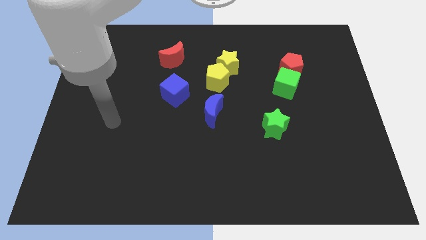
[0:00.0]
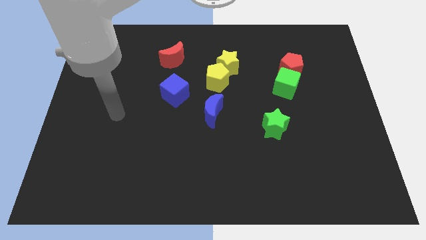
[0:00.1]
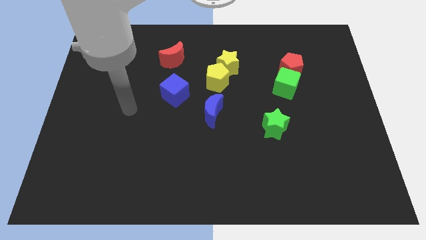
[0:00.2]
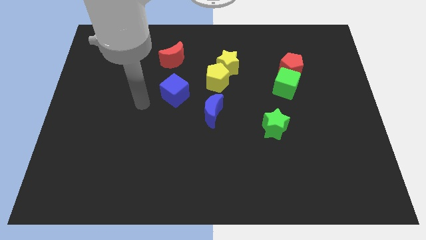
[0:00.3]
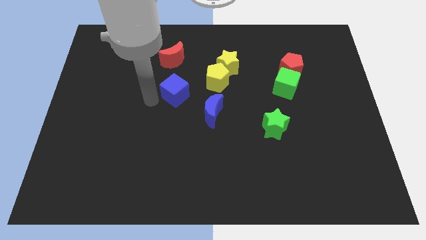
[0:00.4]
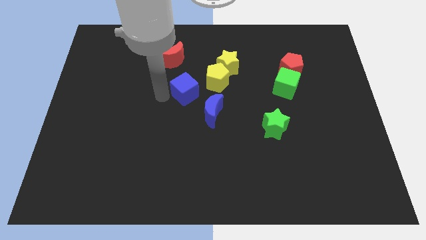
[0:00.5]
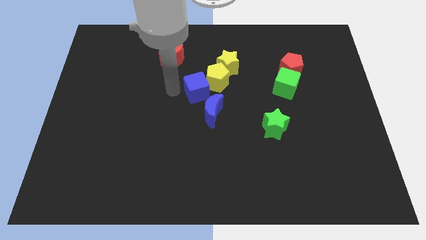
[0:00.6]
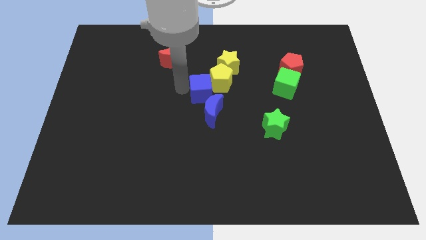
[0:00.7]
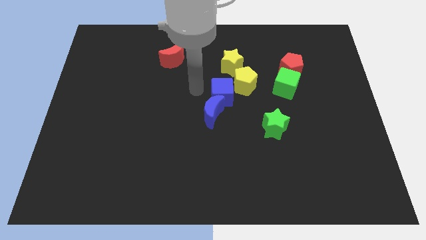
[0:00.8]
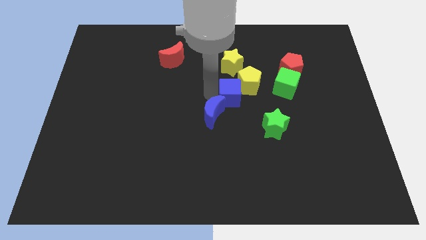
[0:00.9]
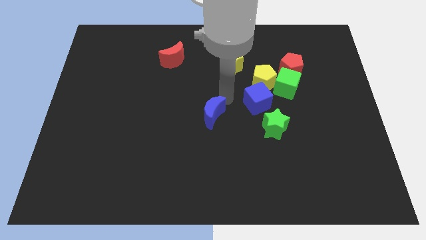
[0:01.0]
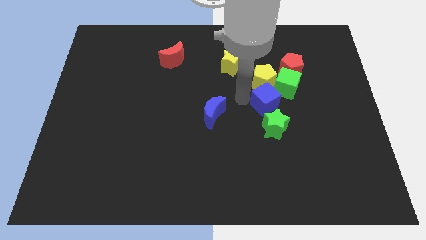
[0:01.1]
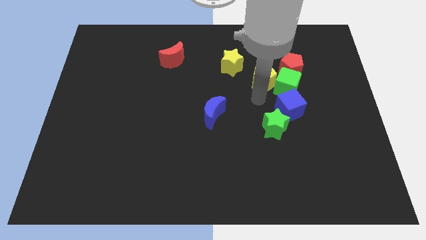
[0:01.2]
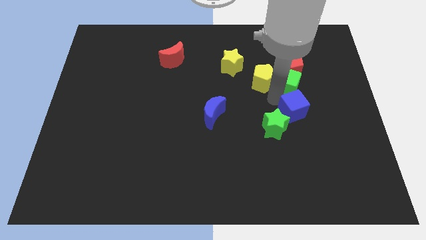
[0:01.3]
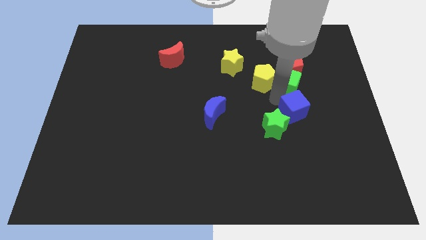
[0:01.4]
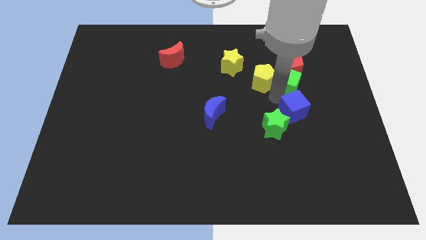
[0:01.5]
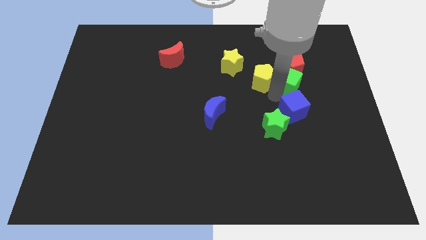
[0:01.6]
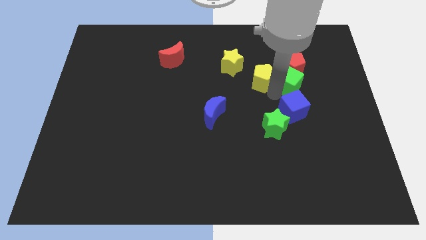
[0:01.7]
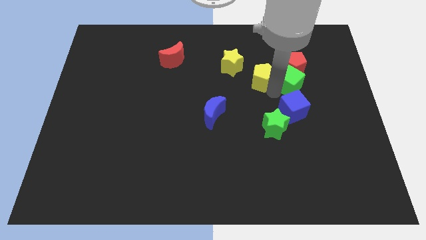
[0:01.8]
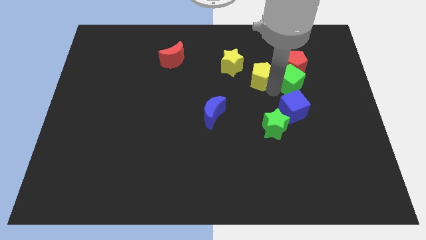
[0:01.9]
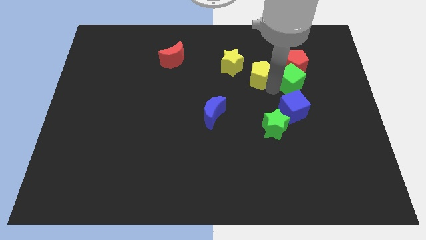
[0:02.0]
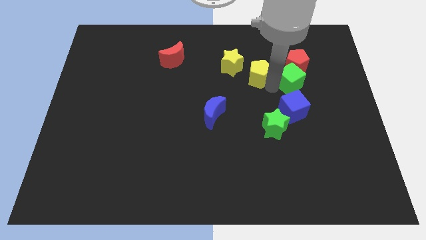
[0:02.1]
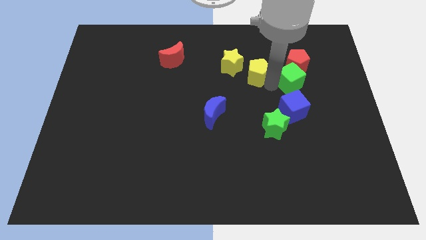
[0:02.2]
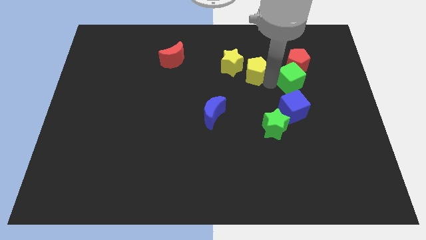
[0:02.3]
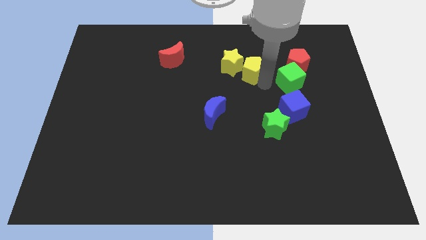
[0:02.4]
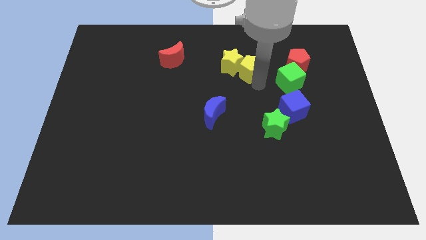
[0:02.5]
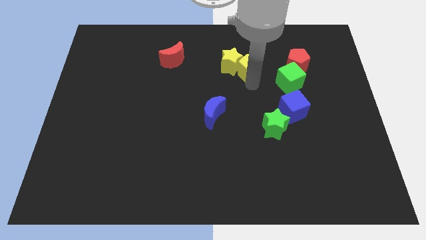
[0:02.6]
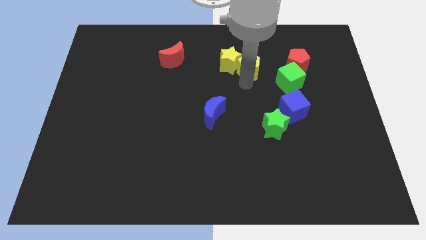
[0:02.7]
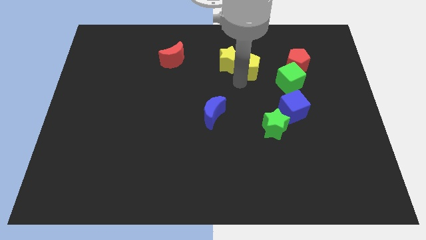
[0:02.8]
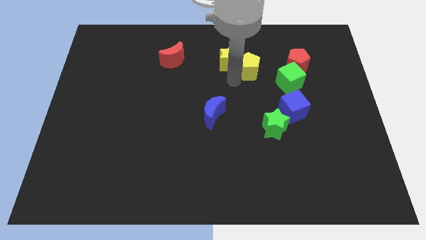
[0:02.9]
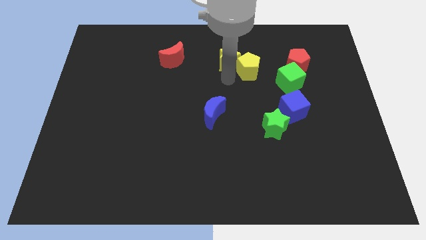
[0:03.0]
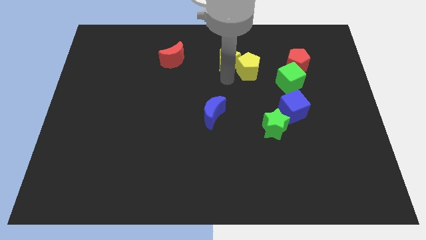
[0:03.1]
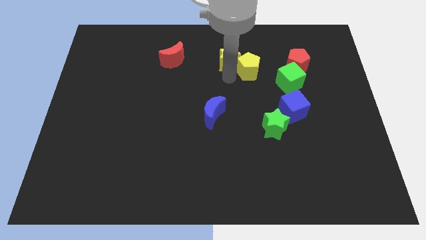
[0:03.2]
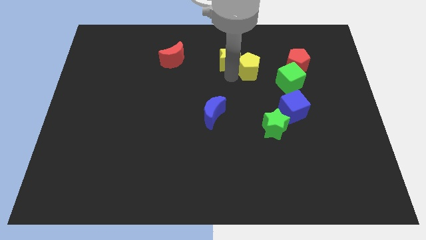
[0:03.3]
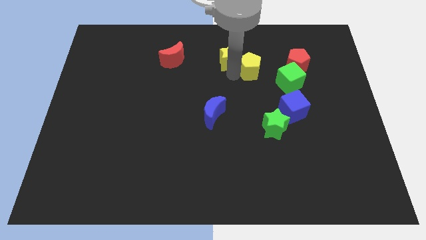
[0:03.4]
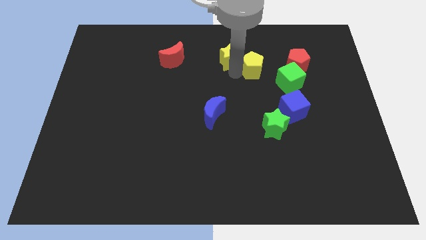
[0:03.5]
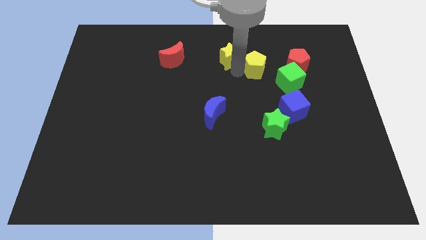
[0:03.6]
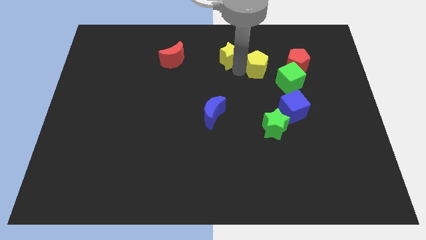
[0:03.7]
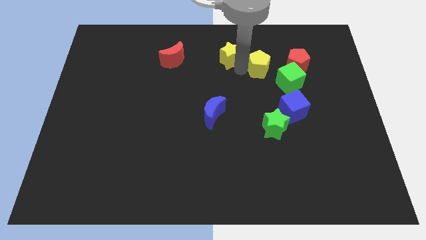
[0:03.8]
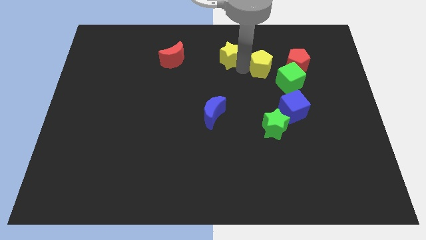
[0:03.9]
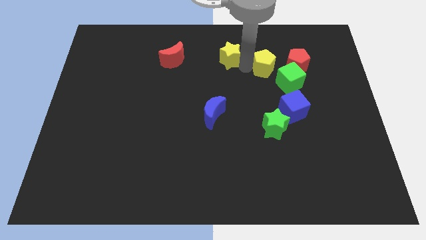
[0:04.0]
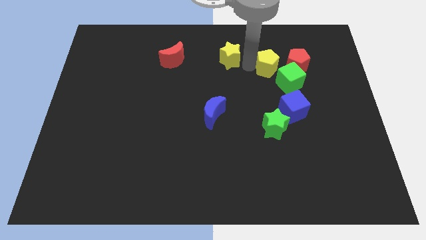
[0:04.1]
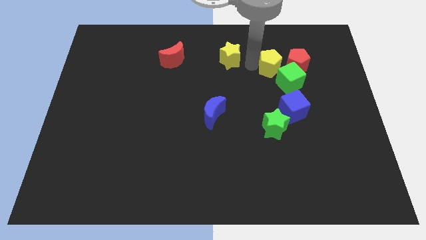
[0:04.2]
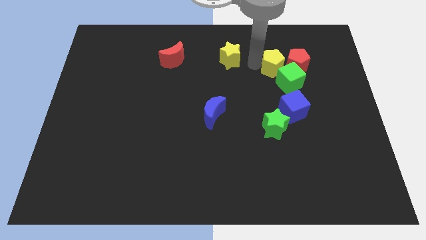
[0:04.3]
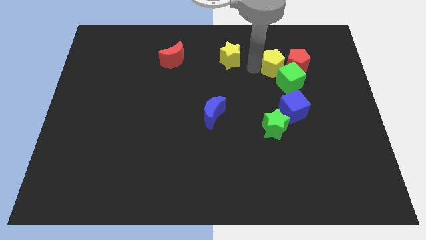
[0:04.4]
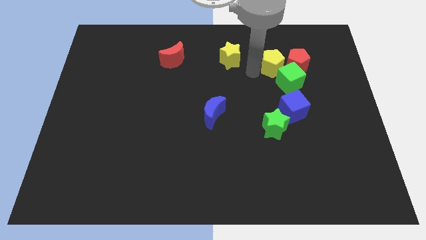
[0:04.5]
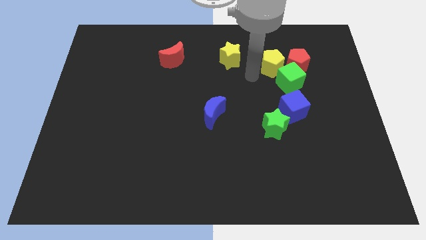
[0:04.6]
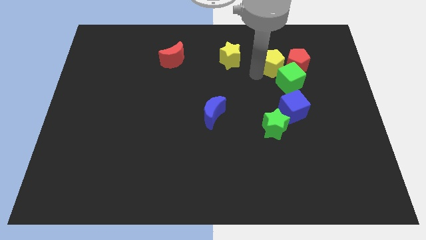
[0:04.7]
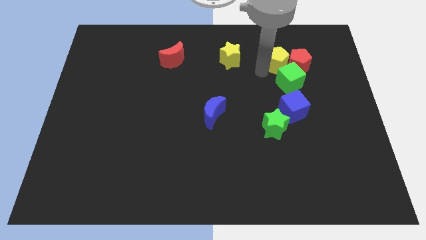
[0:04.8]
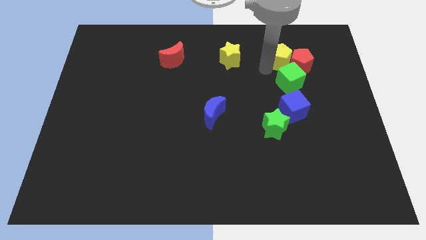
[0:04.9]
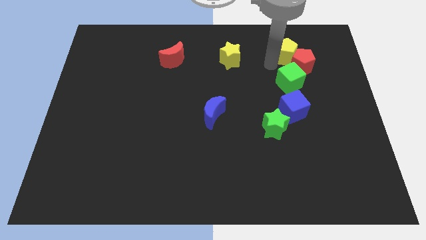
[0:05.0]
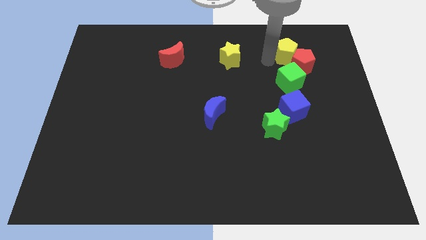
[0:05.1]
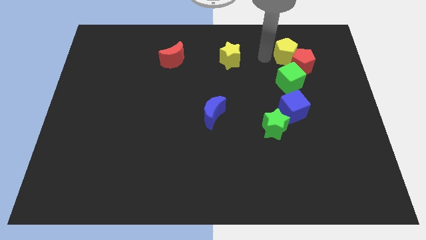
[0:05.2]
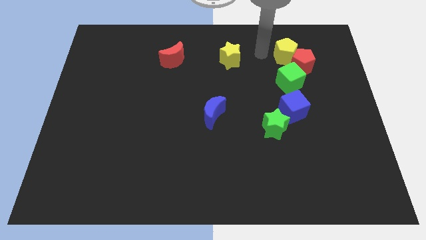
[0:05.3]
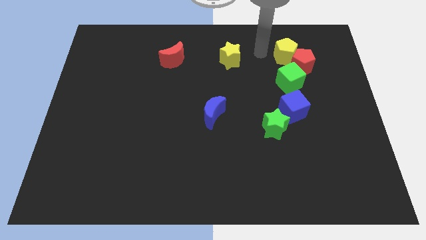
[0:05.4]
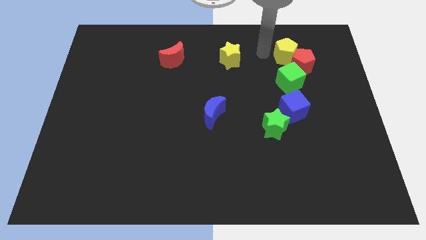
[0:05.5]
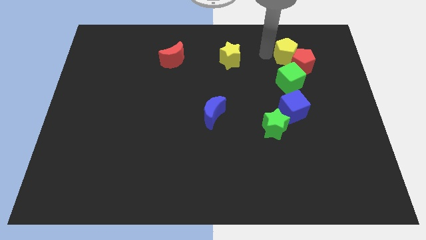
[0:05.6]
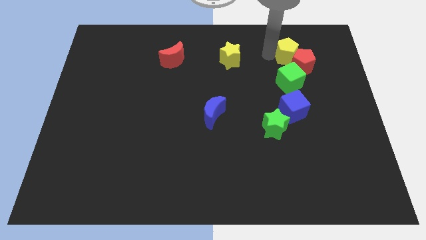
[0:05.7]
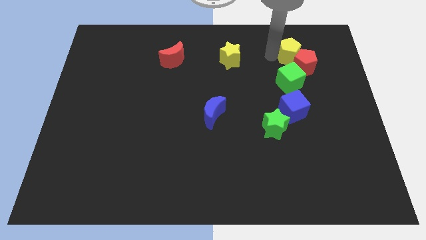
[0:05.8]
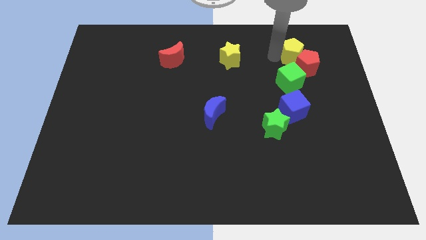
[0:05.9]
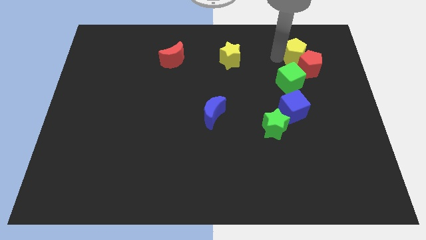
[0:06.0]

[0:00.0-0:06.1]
push the yellow pentagon to the top right of the green cube

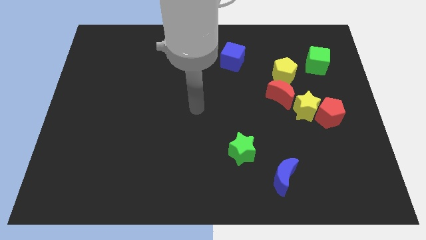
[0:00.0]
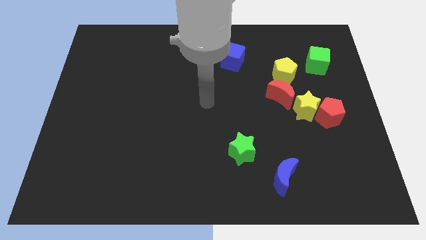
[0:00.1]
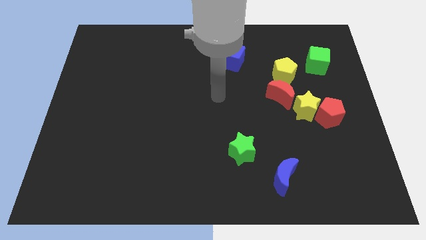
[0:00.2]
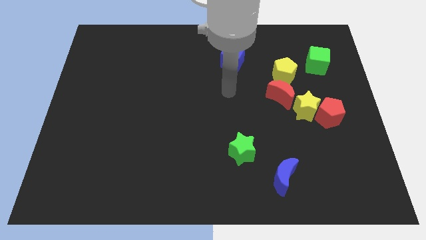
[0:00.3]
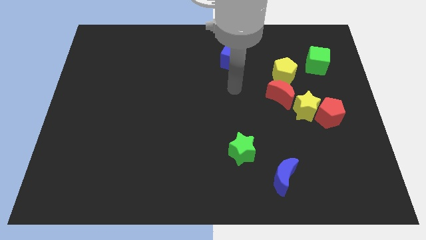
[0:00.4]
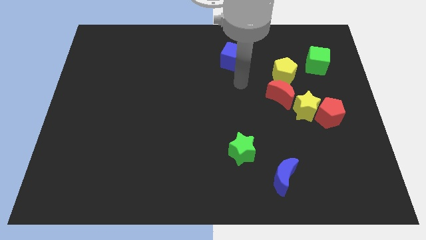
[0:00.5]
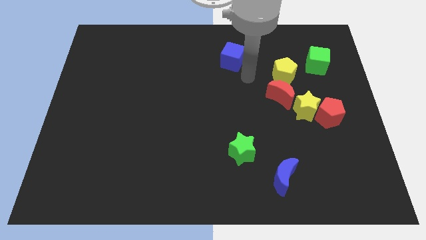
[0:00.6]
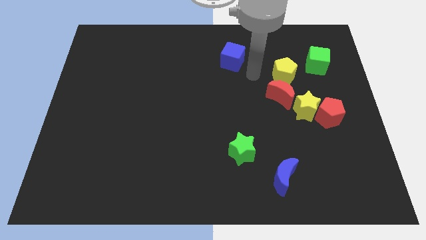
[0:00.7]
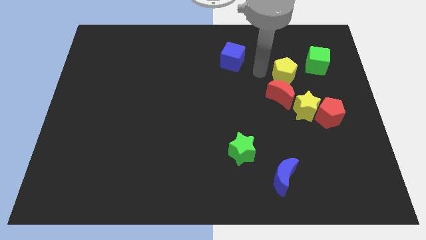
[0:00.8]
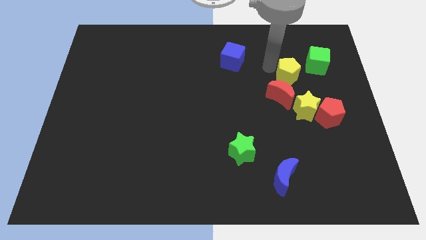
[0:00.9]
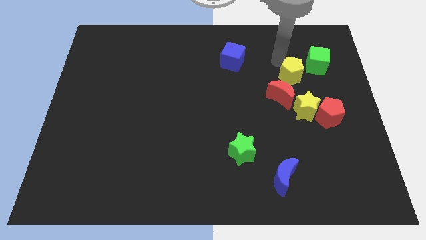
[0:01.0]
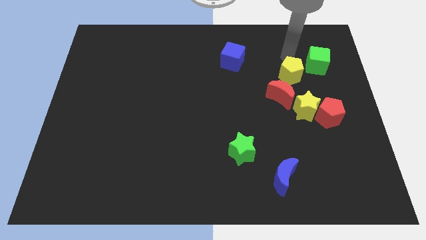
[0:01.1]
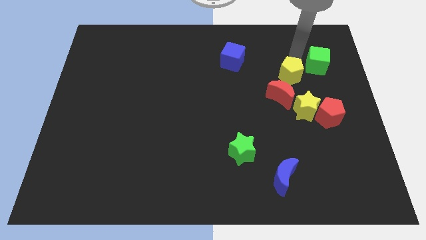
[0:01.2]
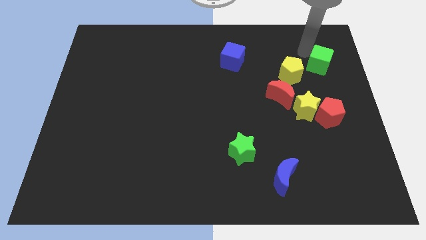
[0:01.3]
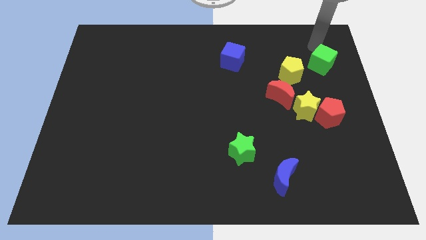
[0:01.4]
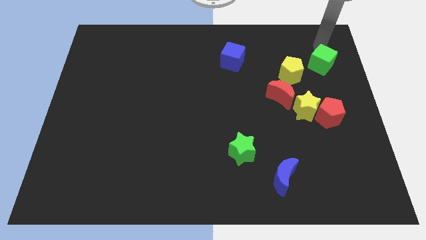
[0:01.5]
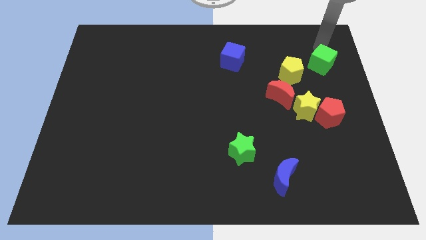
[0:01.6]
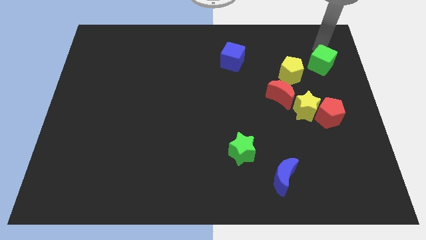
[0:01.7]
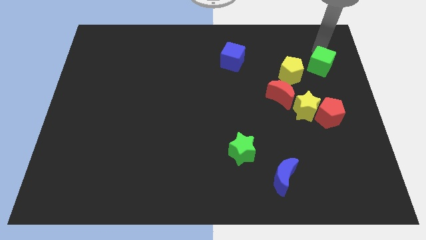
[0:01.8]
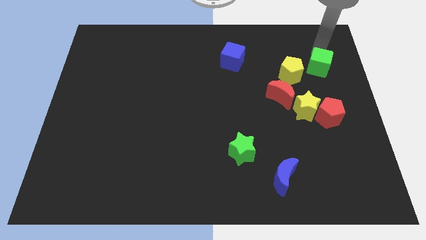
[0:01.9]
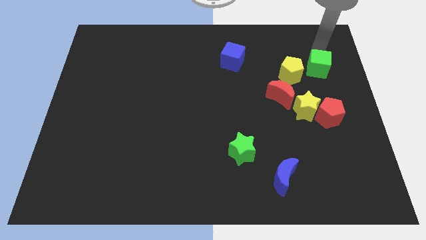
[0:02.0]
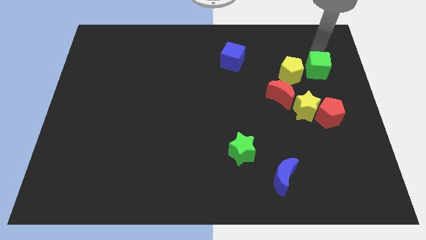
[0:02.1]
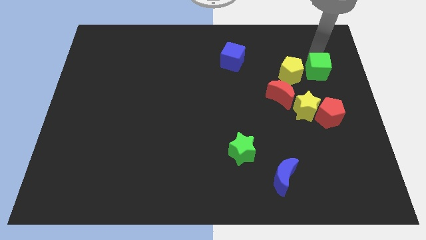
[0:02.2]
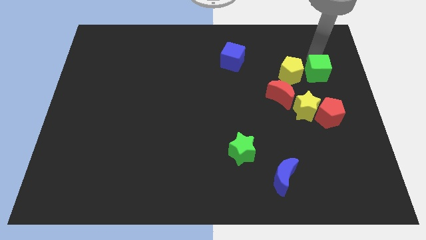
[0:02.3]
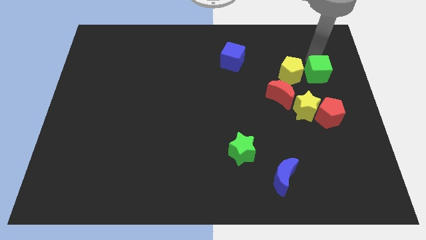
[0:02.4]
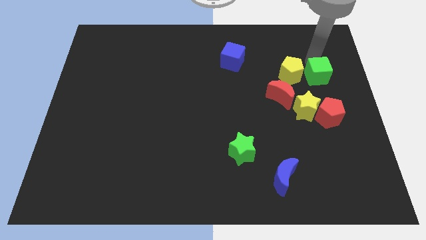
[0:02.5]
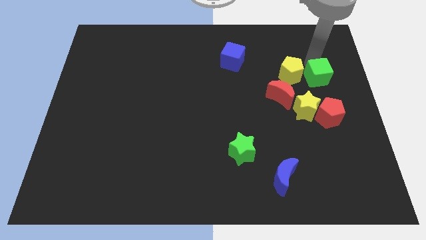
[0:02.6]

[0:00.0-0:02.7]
move the green cube to the top right side of the yellow star
